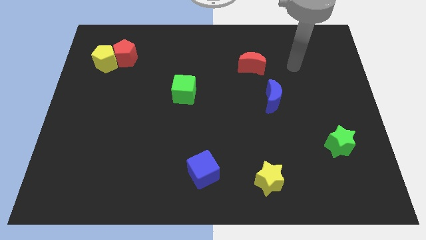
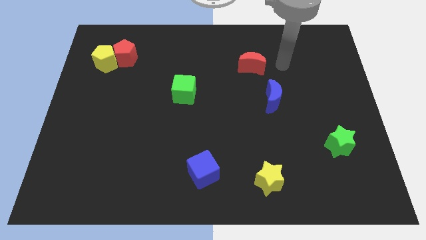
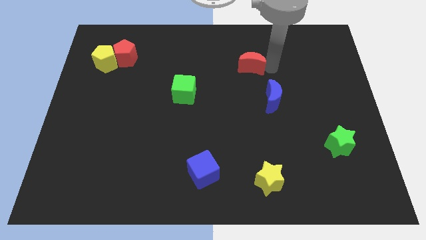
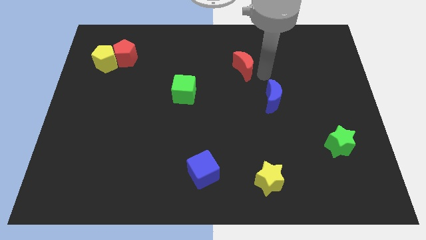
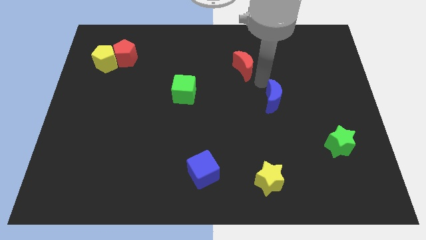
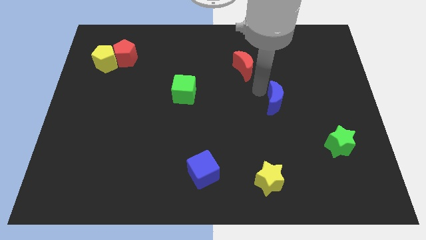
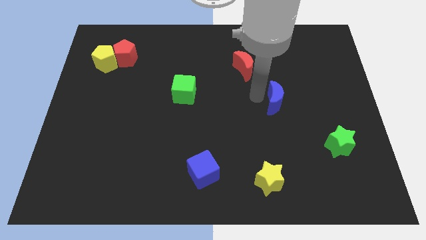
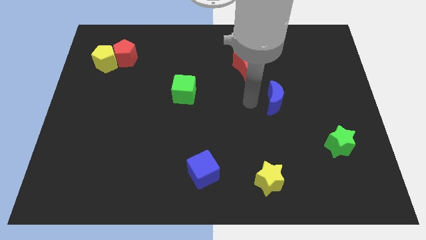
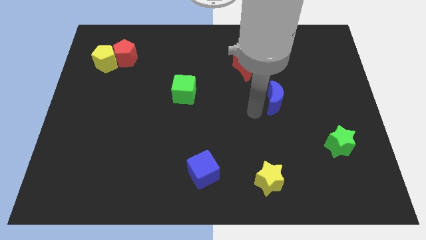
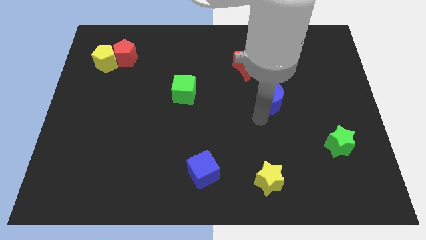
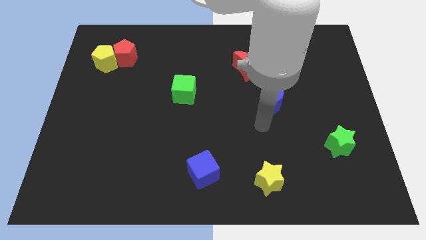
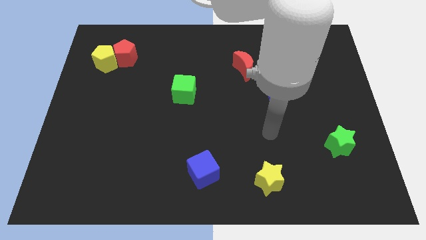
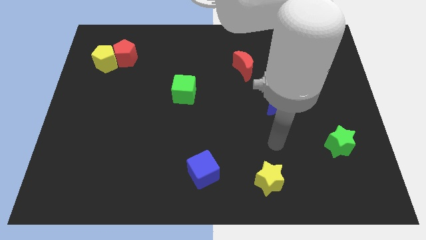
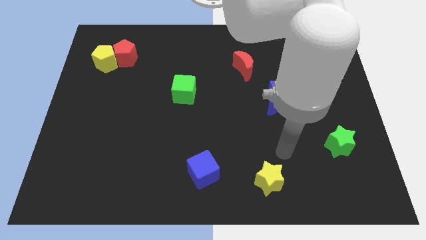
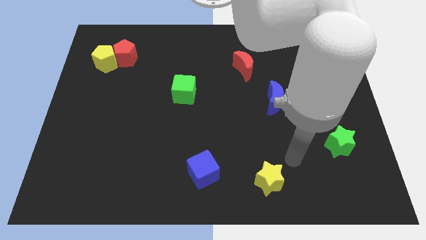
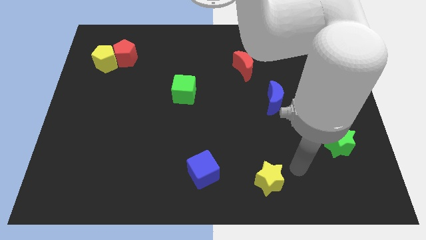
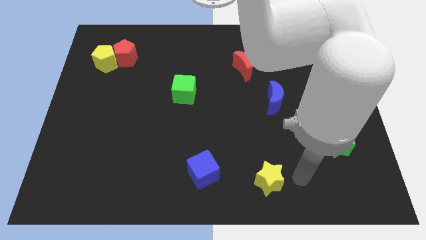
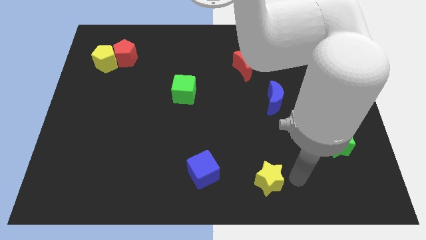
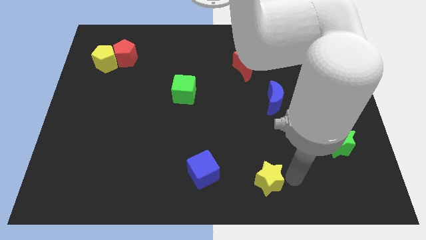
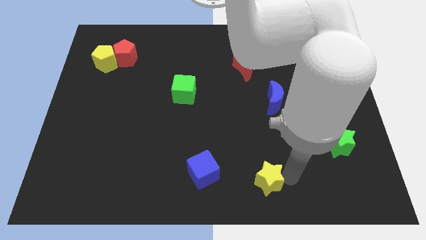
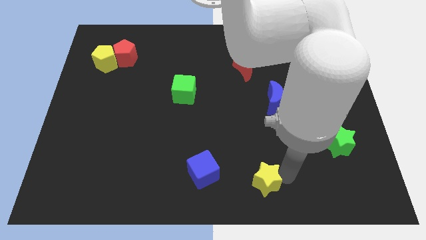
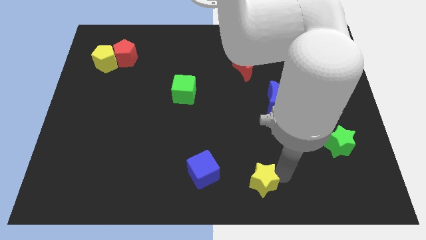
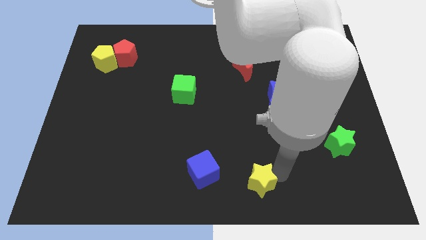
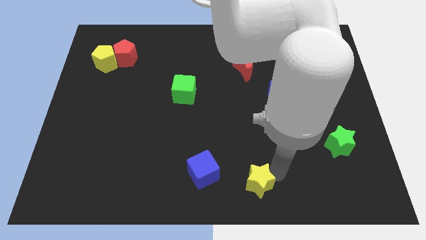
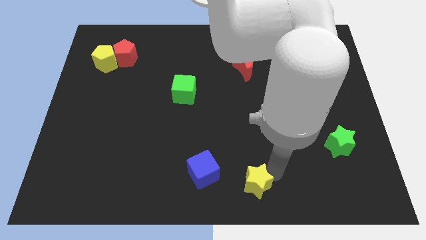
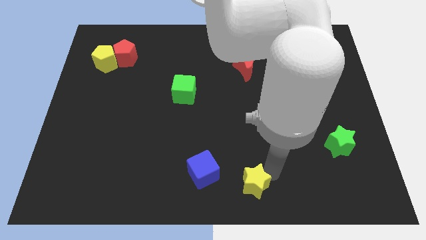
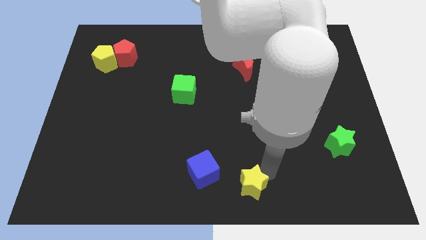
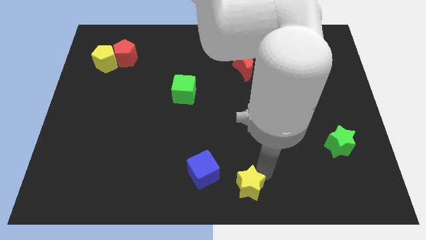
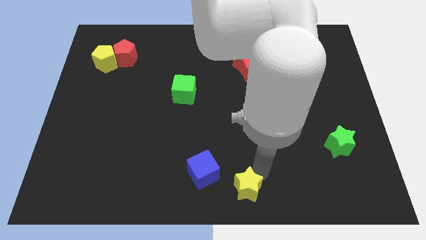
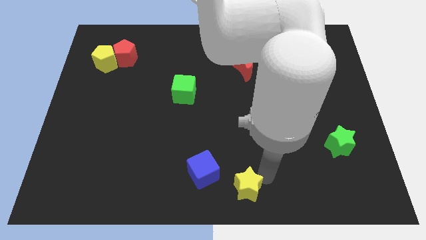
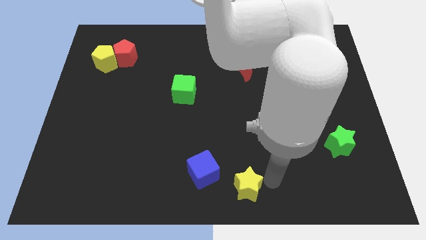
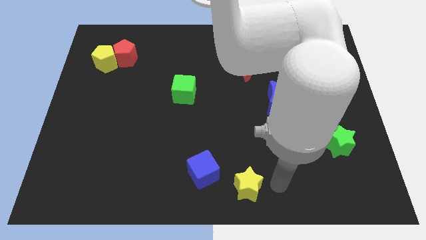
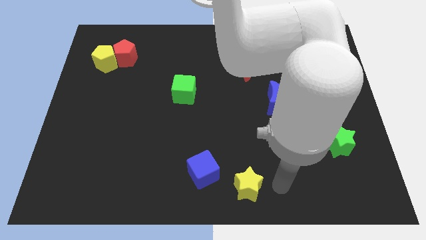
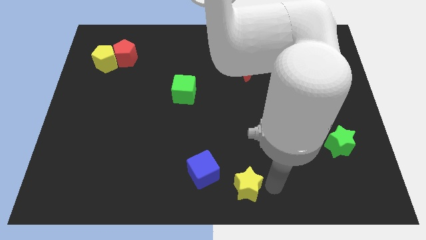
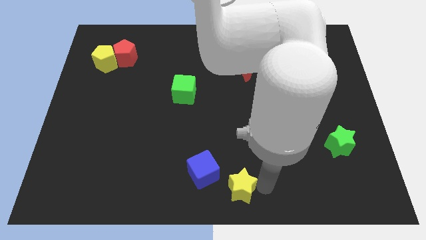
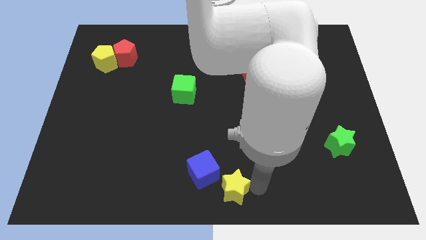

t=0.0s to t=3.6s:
move the yellow star a little to the left

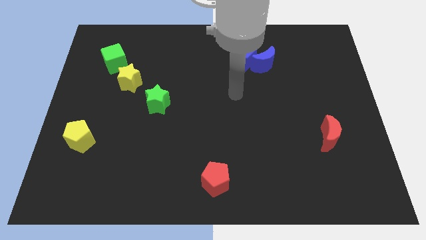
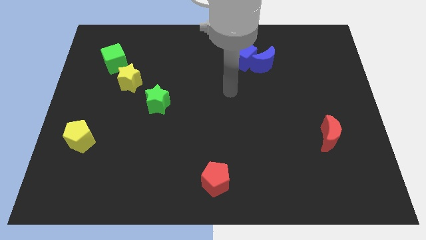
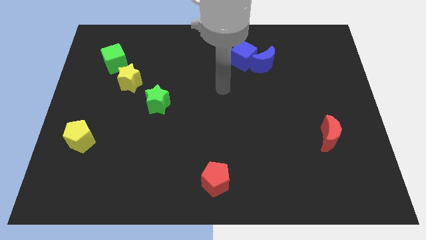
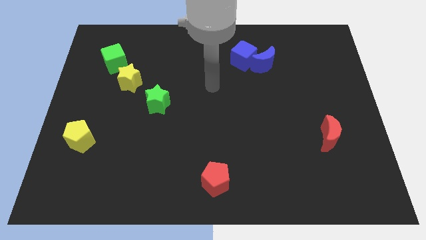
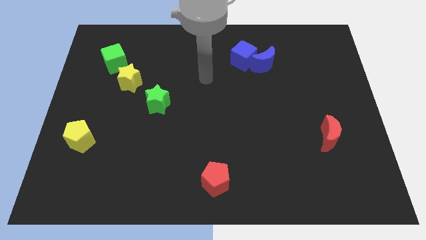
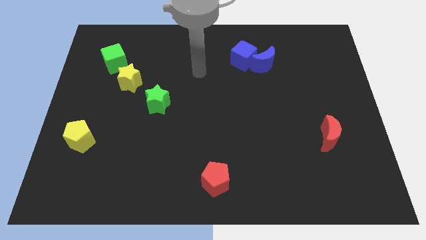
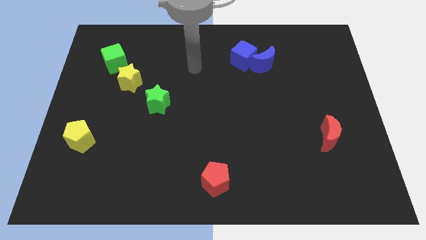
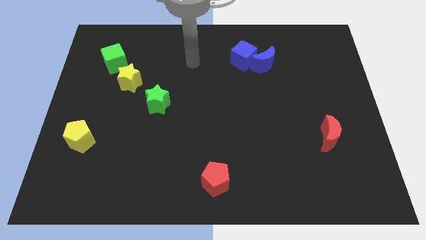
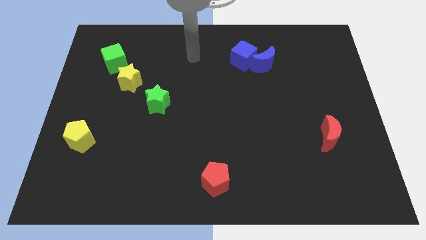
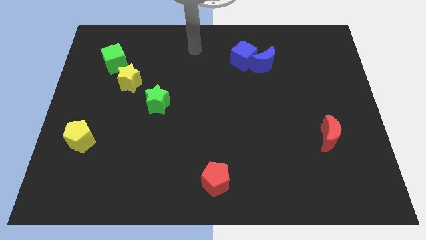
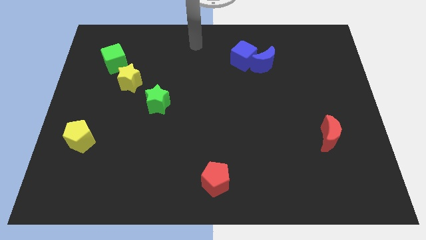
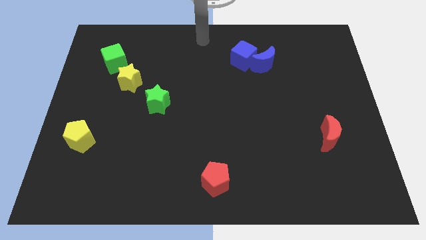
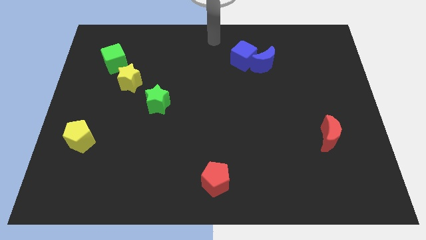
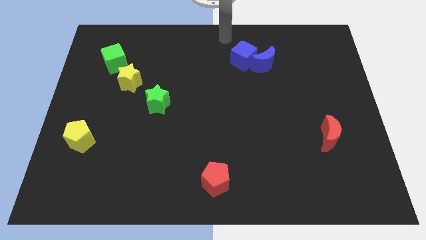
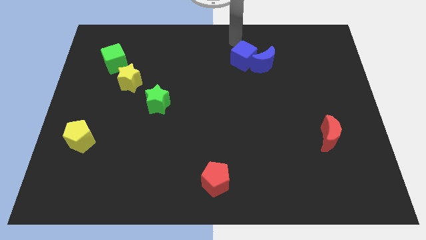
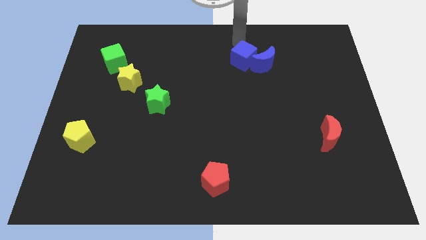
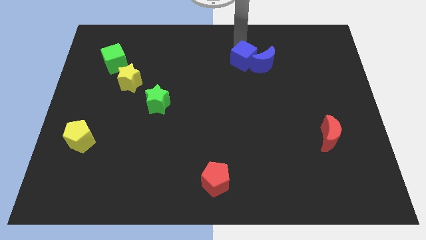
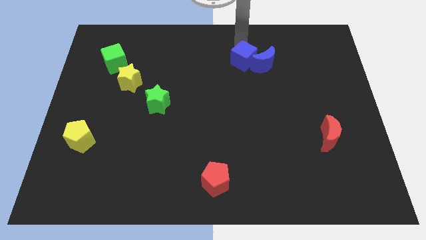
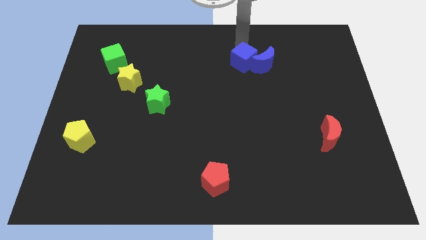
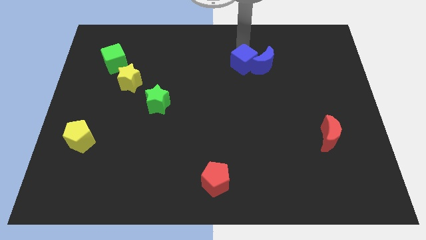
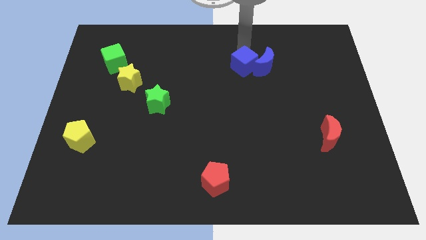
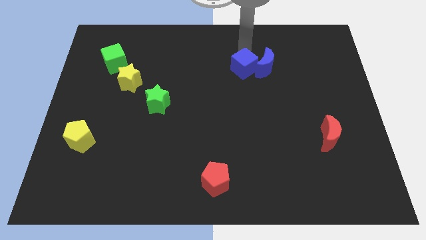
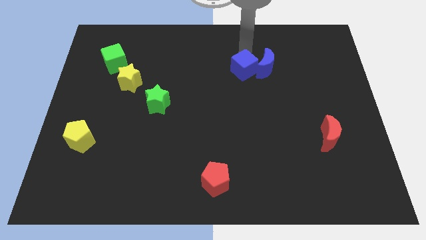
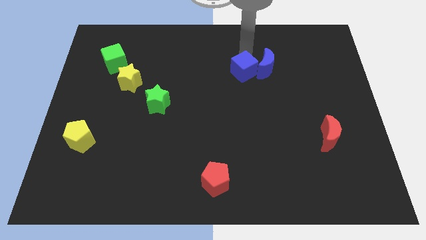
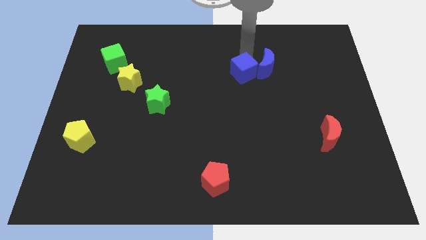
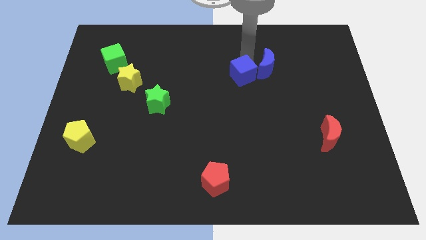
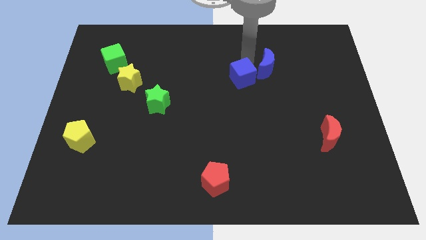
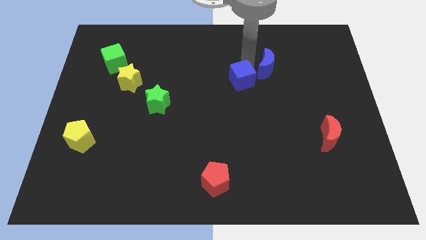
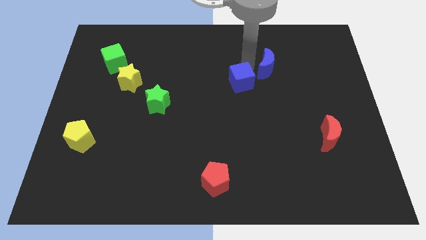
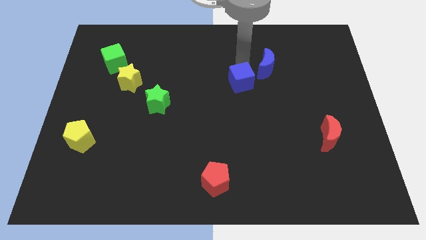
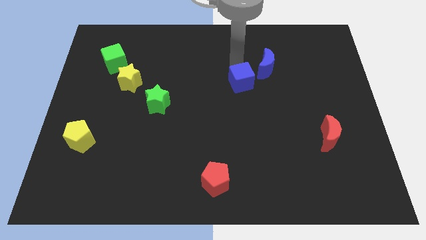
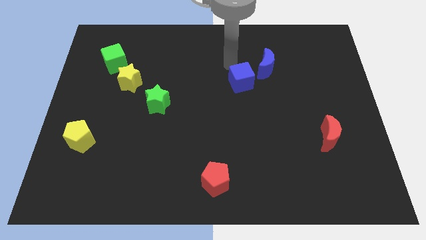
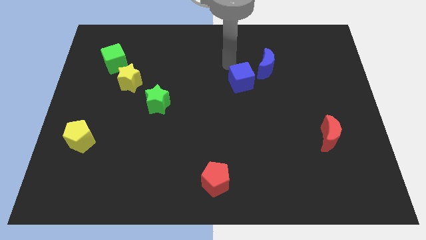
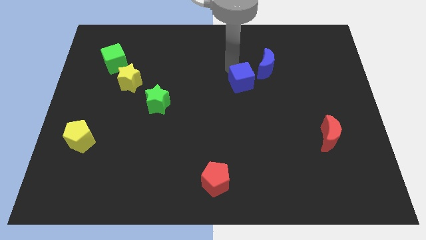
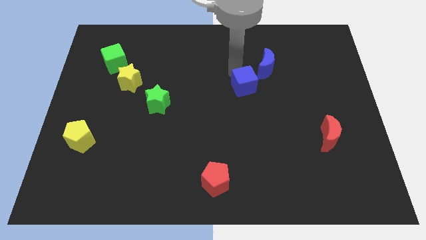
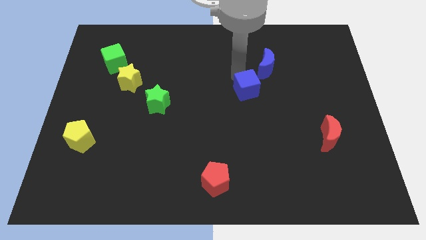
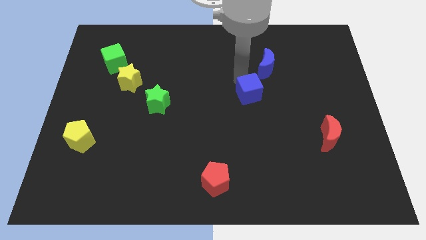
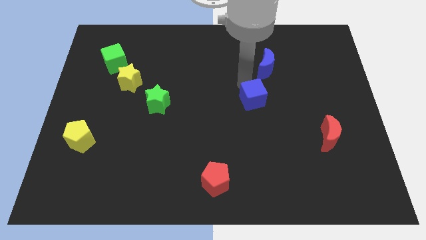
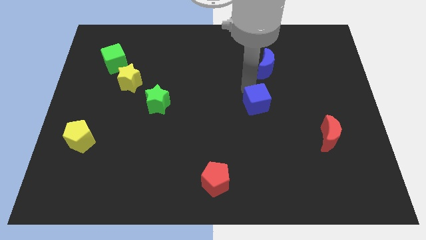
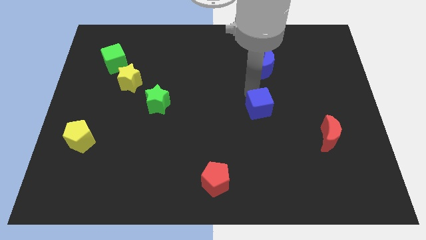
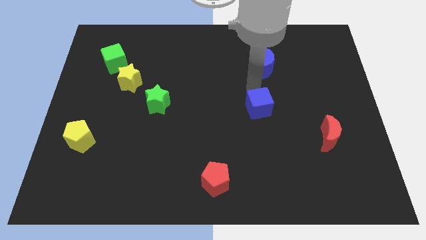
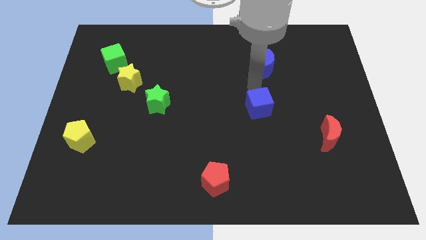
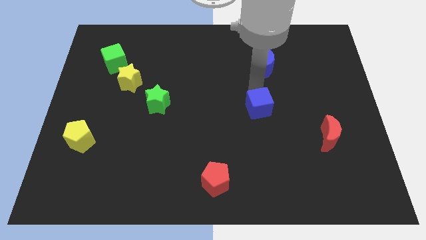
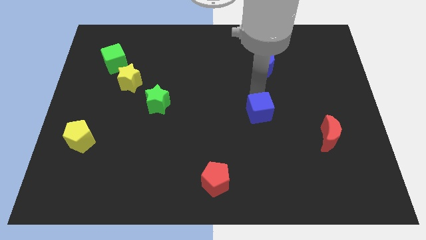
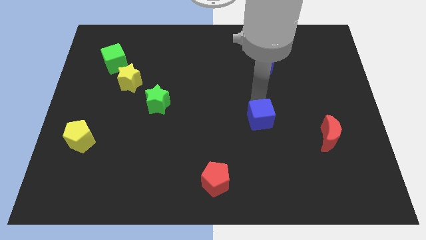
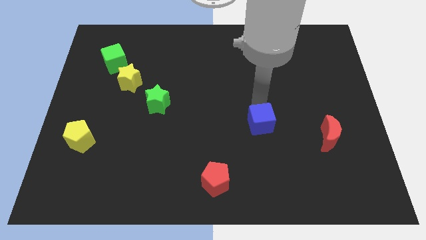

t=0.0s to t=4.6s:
move the blue cube down

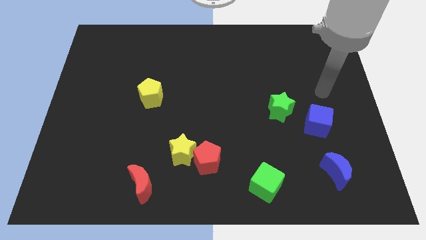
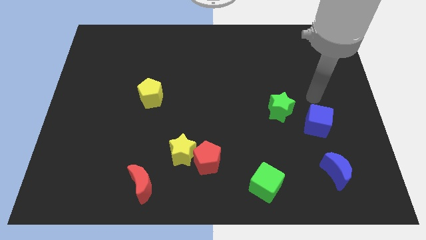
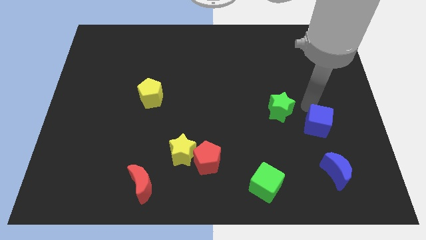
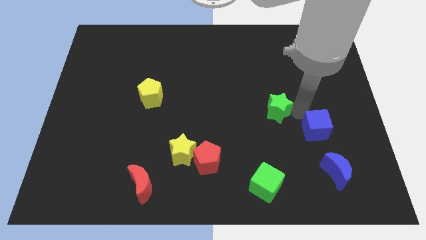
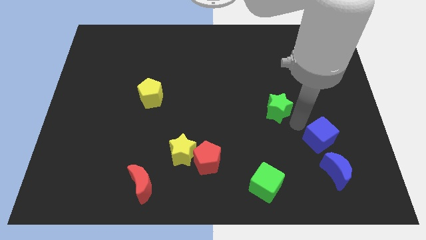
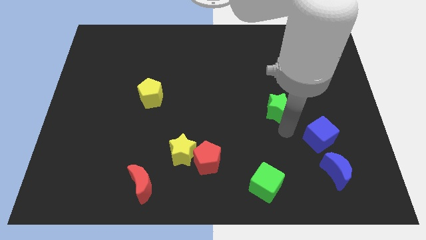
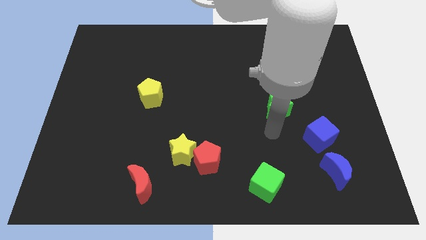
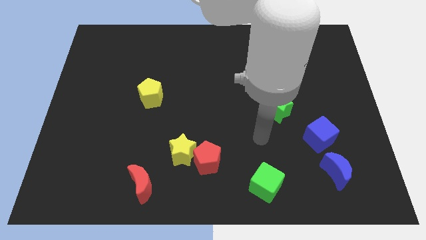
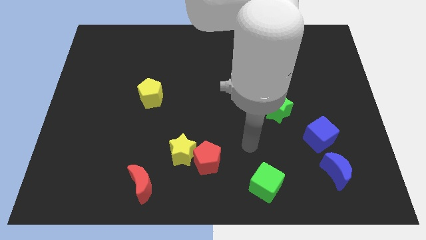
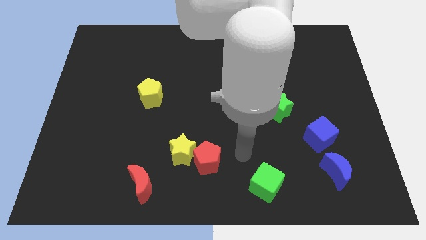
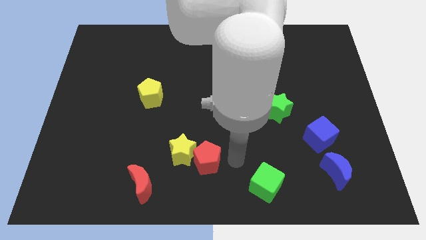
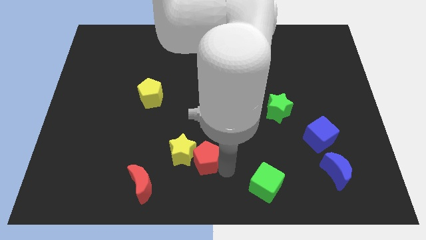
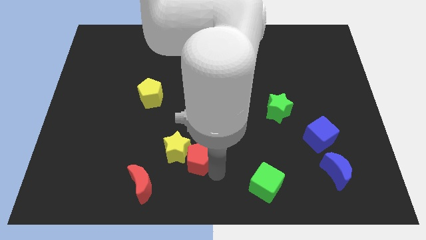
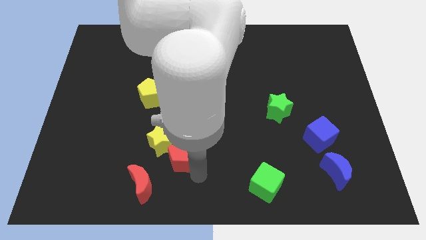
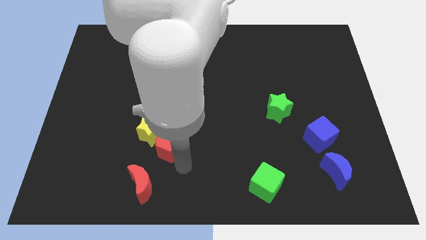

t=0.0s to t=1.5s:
push the yellow star diagonally upwards and to the left slightly
